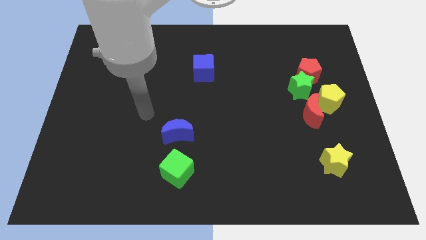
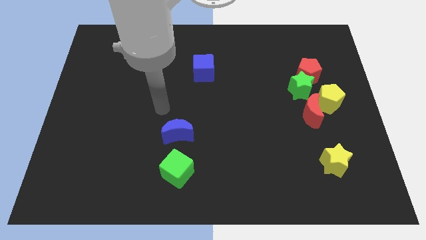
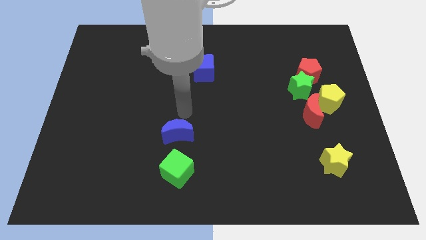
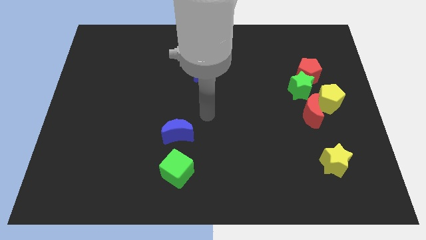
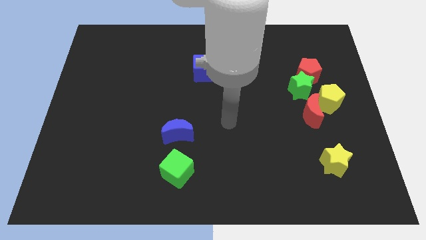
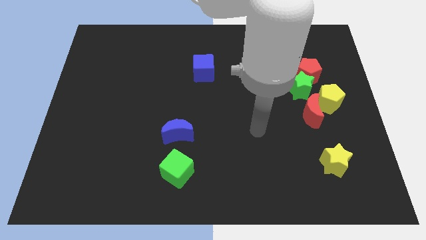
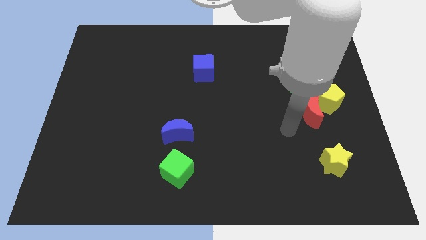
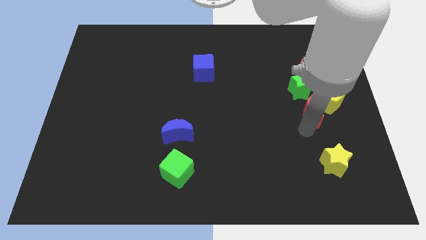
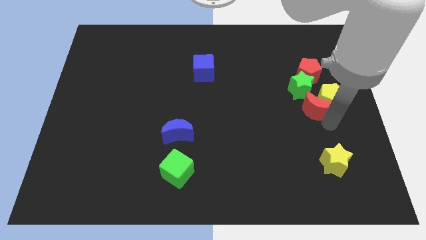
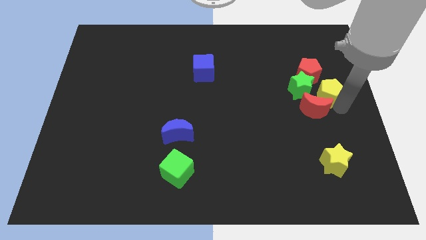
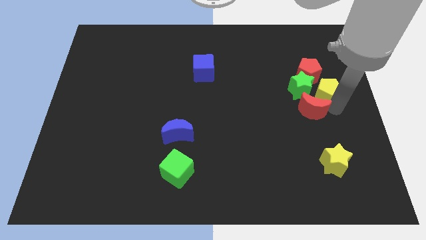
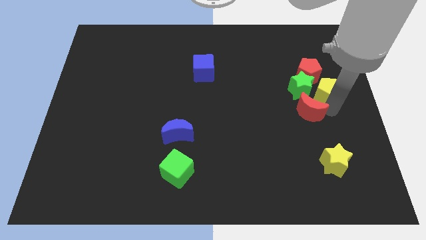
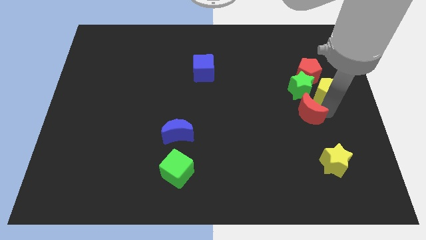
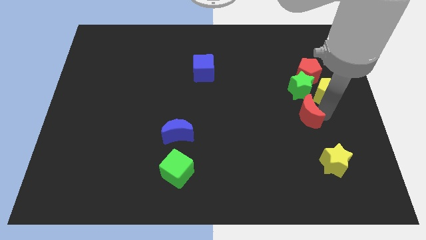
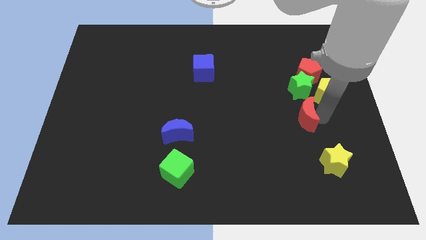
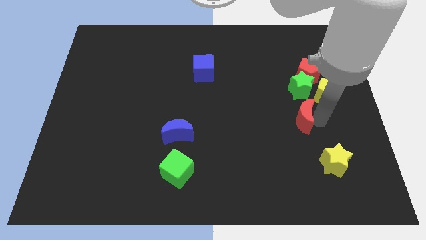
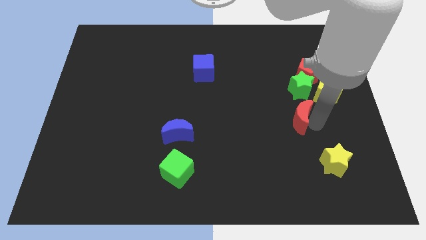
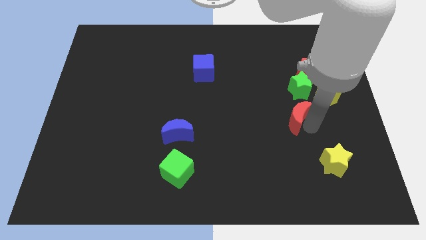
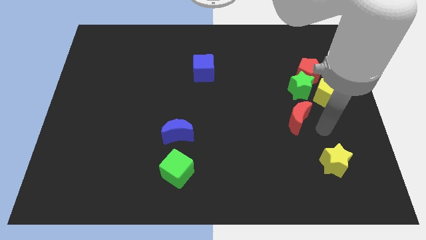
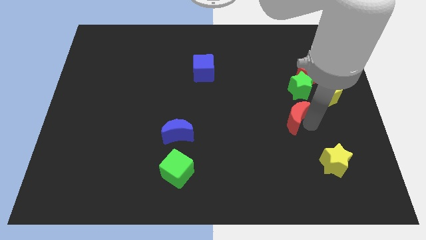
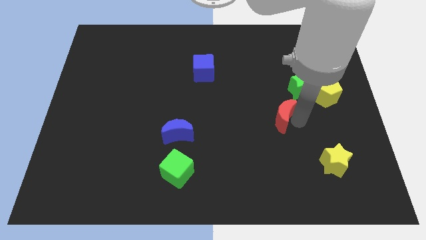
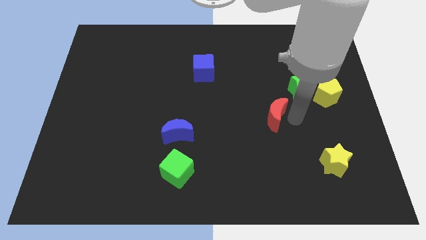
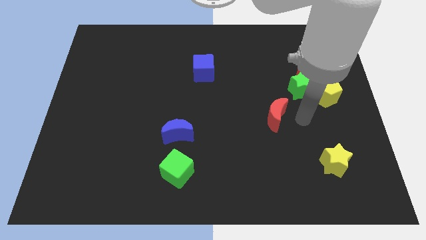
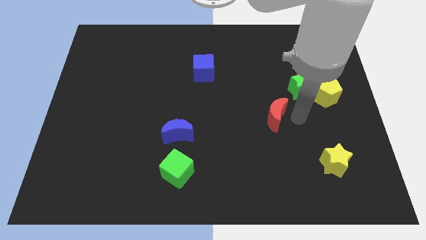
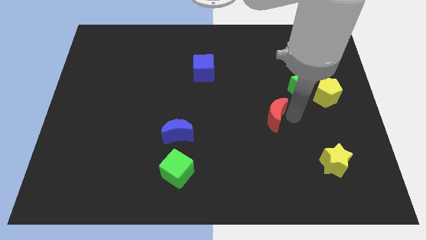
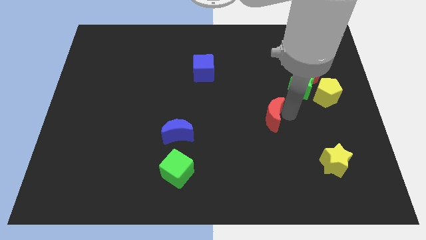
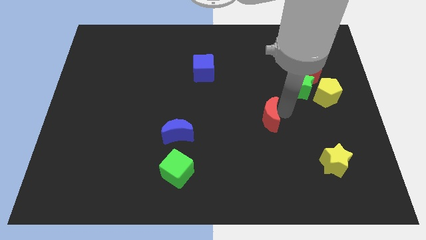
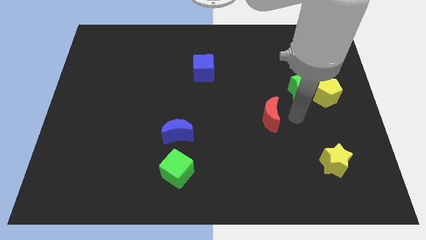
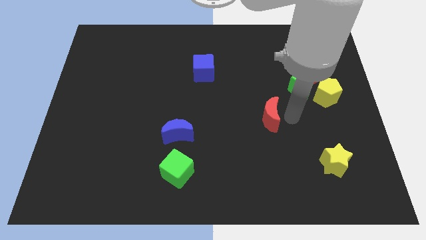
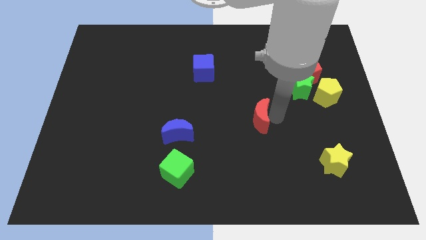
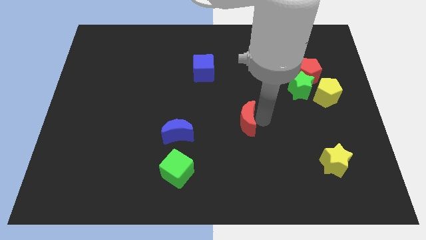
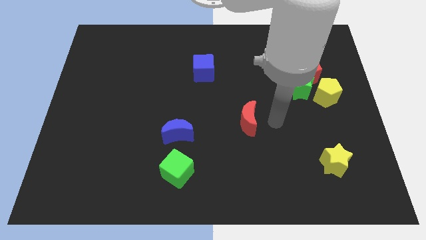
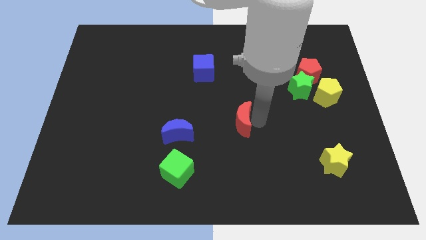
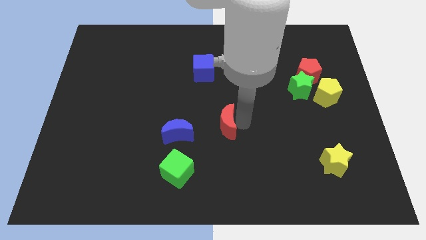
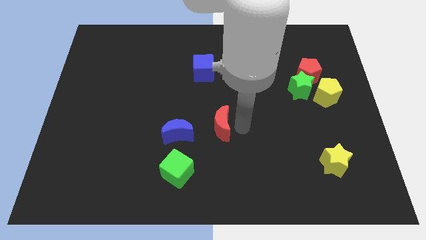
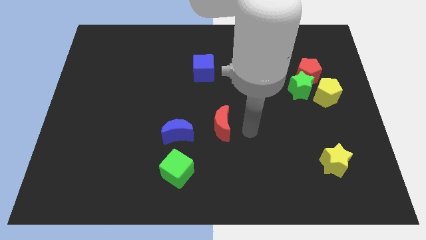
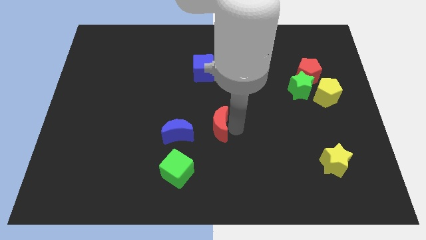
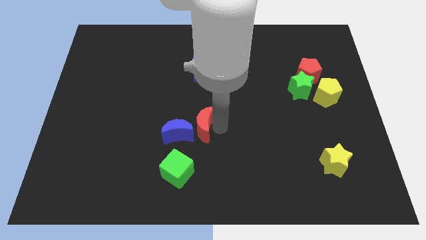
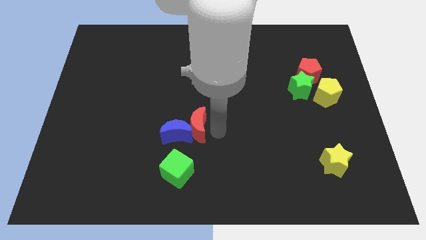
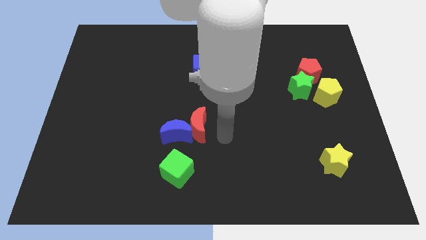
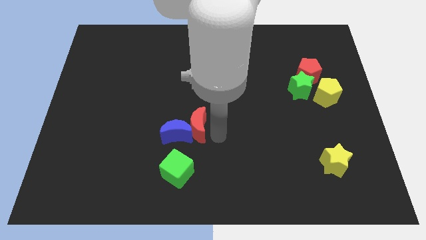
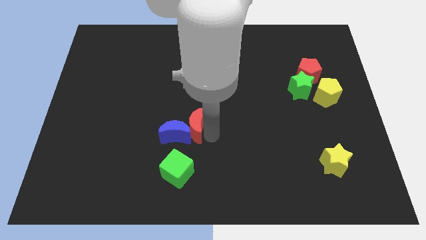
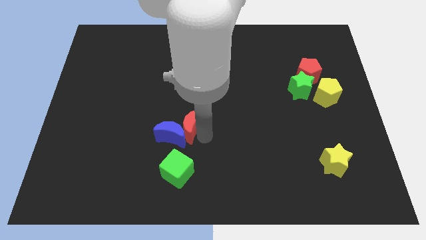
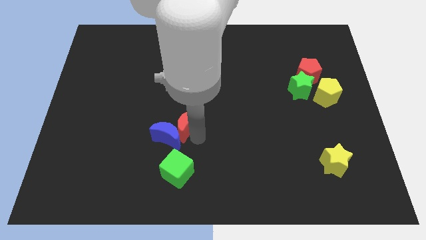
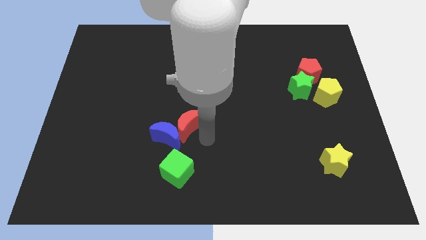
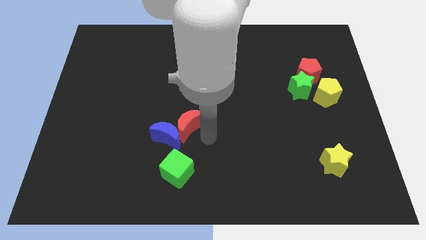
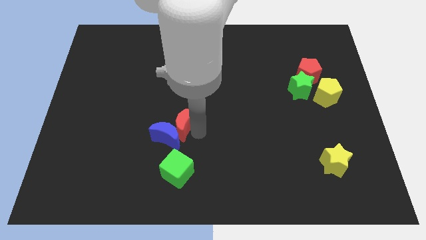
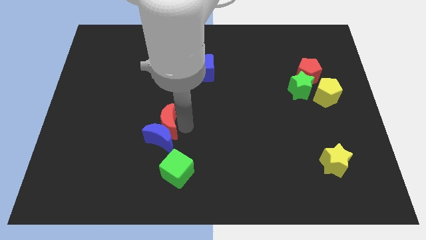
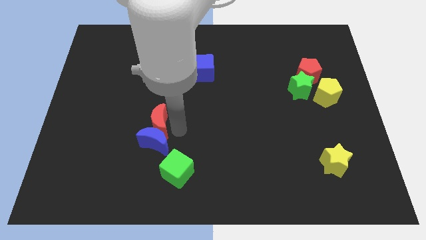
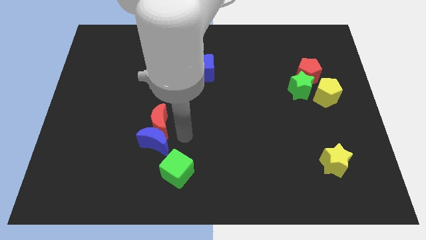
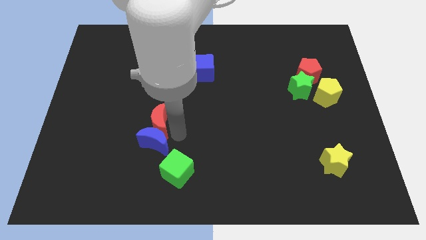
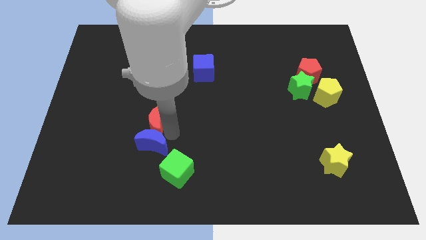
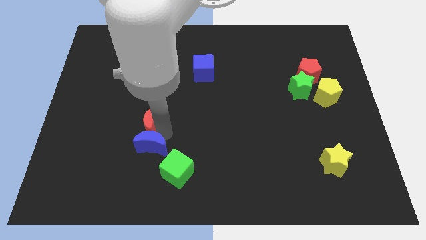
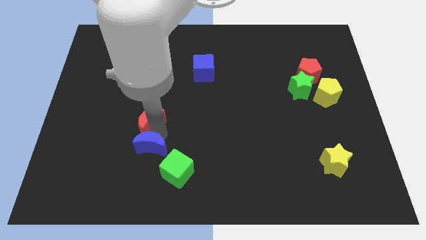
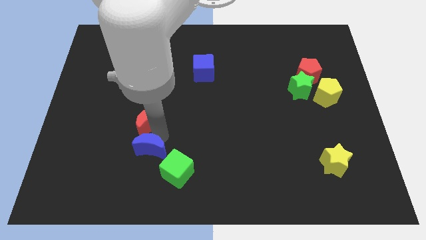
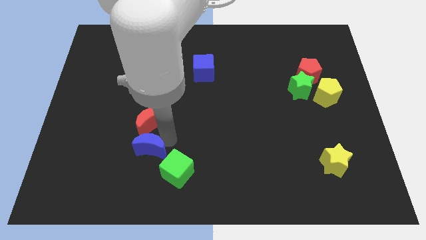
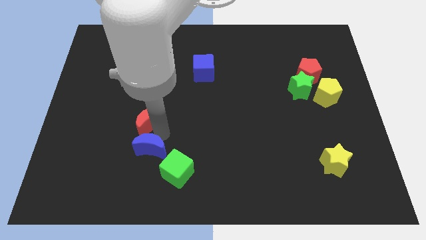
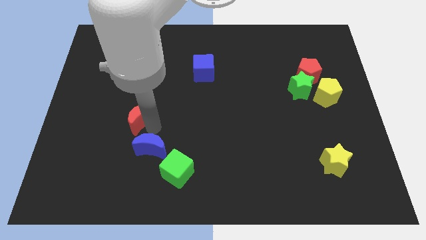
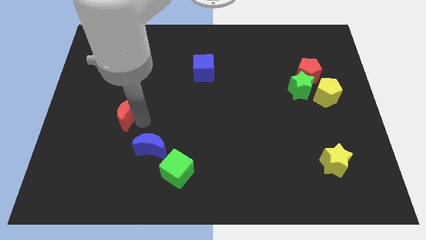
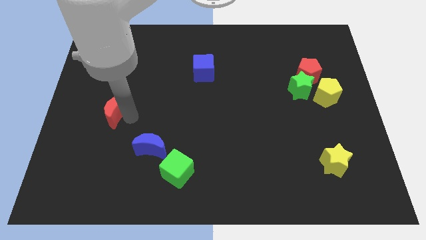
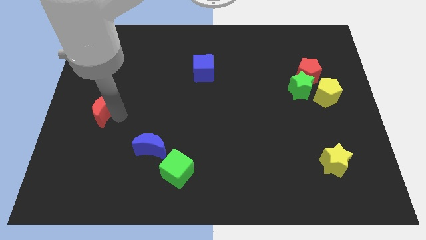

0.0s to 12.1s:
slide the red moon to the center left

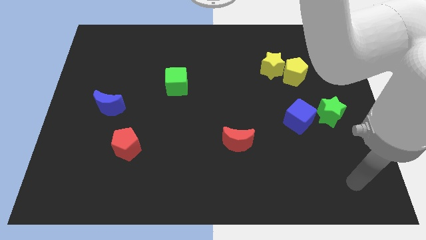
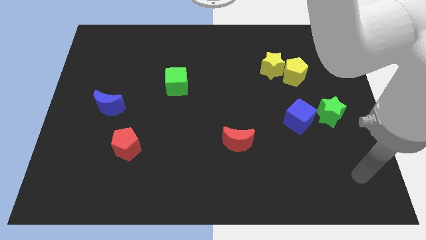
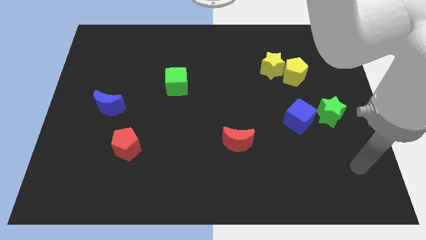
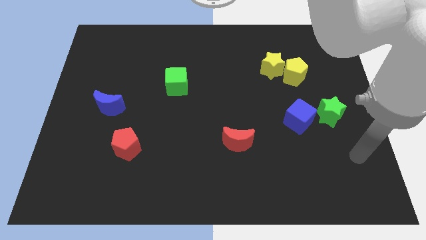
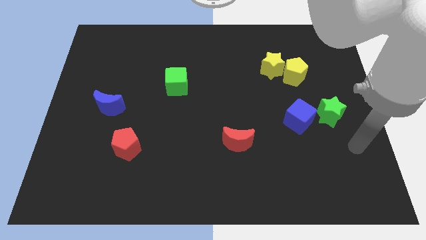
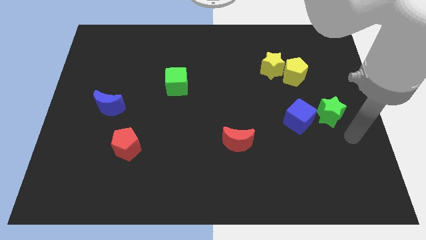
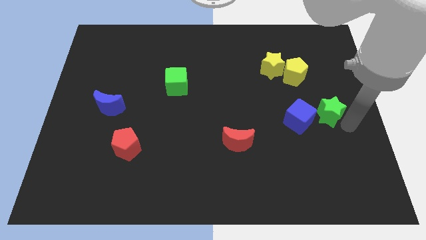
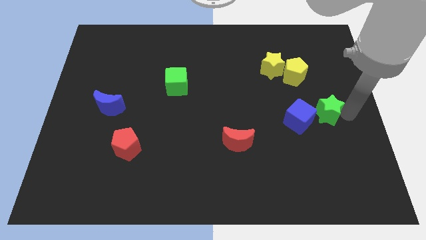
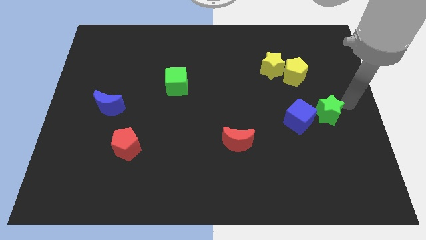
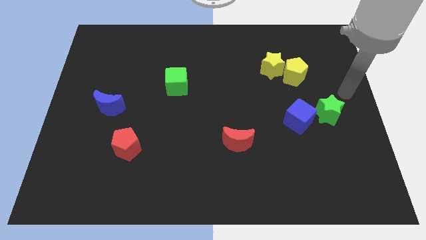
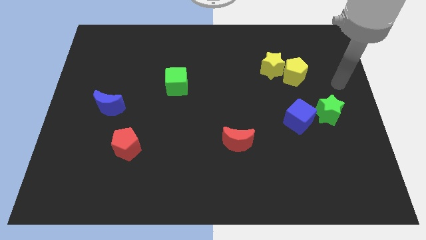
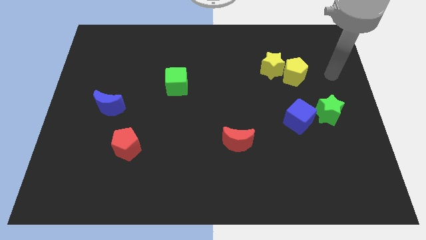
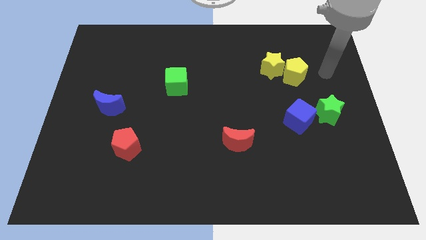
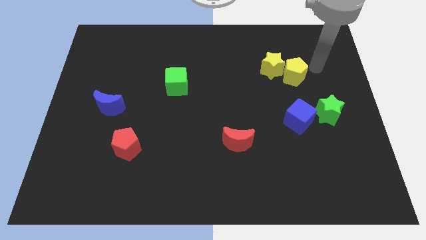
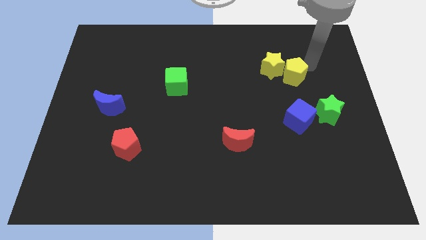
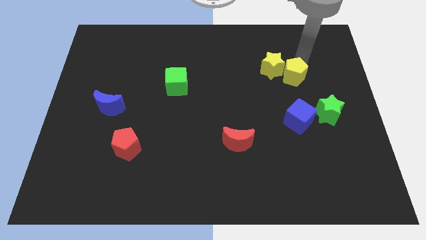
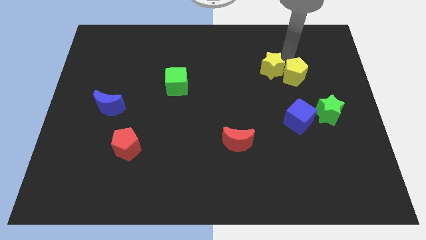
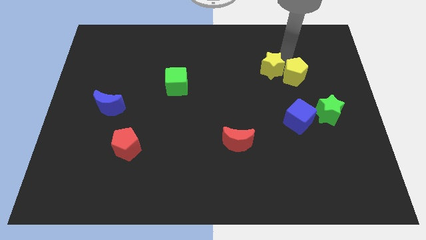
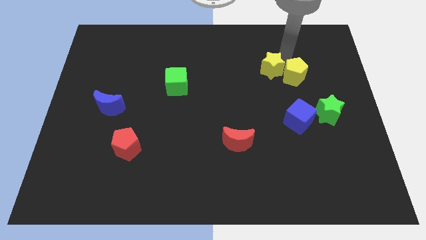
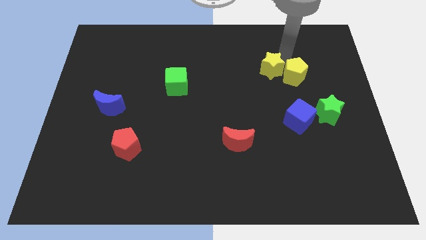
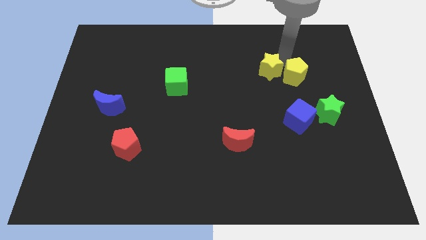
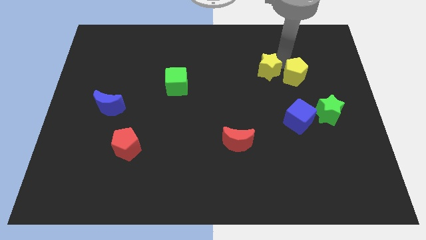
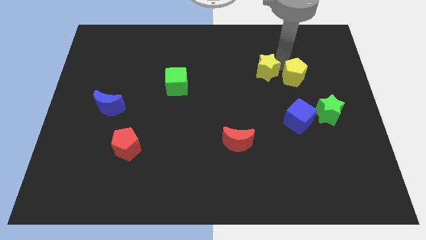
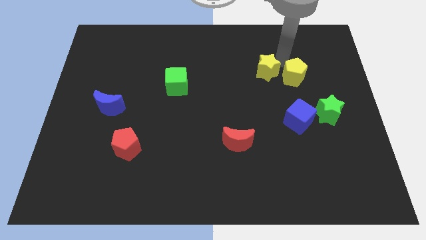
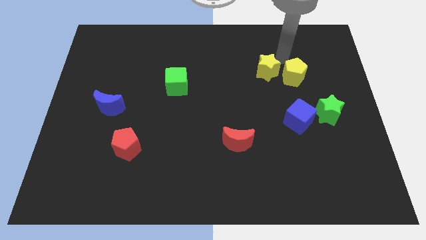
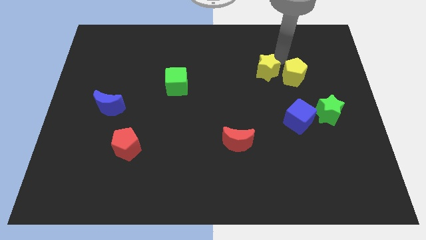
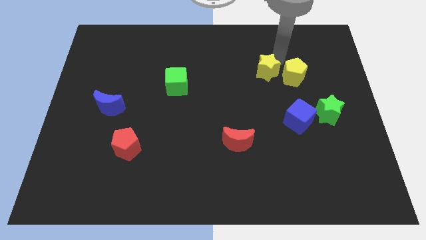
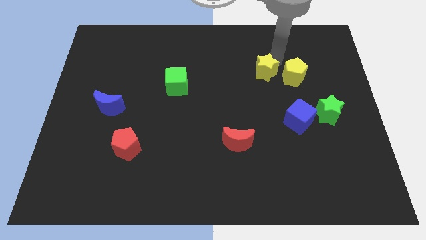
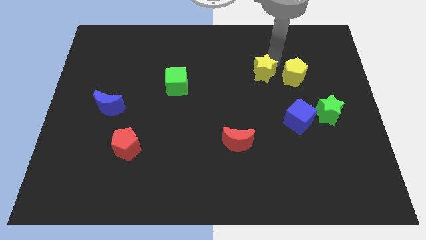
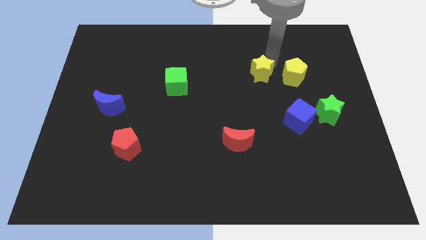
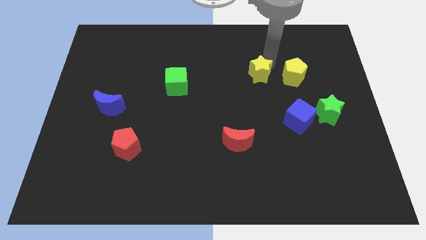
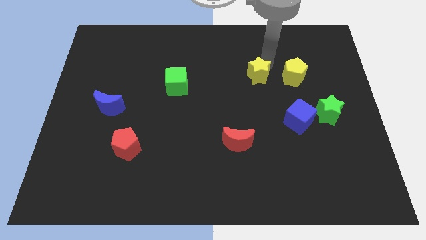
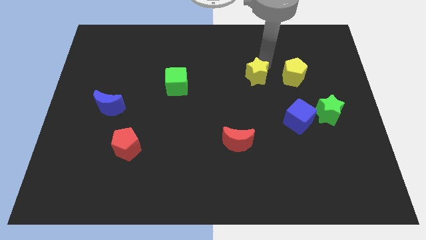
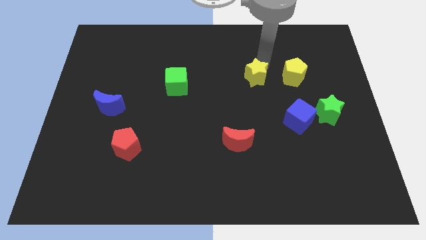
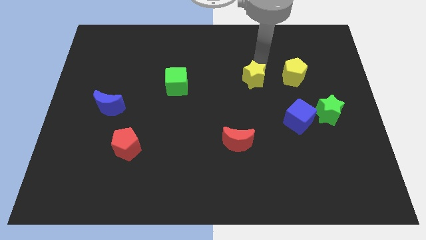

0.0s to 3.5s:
move the yellow star to the center
